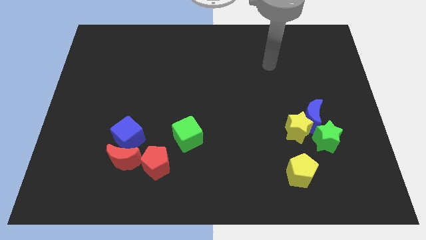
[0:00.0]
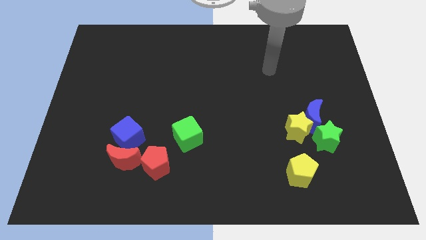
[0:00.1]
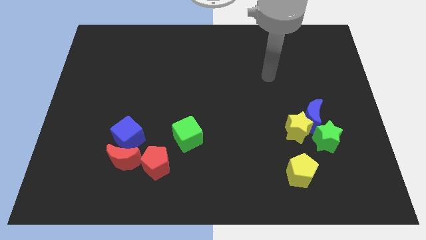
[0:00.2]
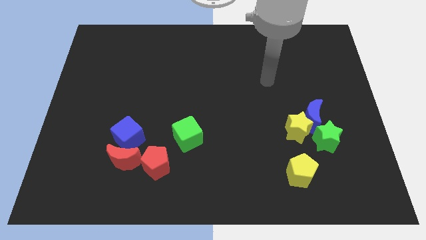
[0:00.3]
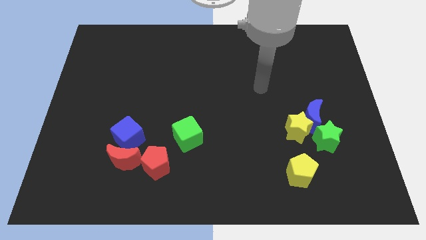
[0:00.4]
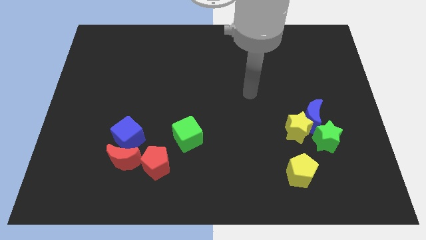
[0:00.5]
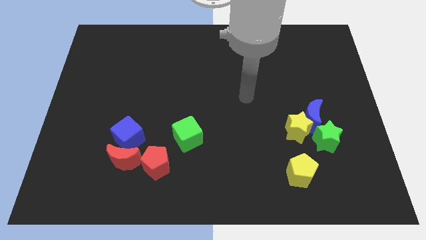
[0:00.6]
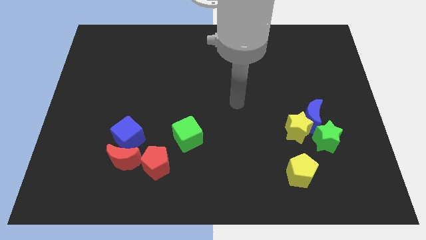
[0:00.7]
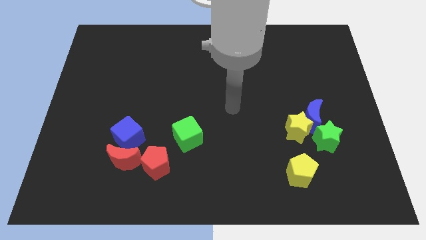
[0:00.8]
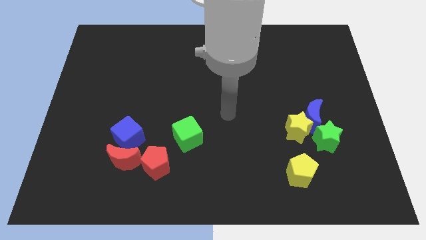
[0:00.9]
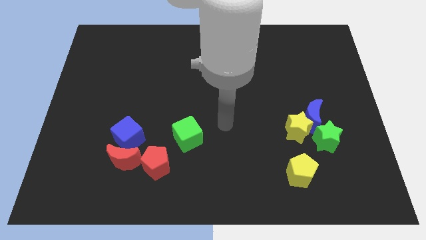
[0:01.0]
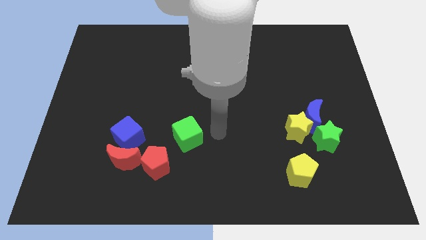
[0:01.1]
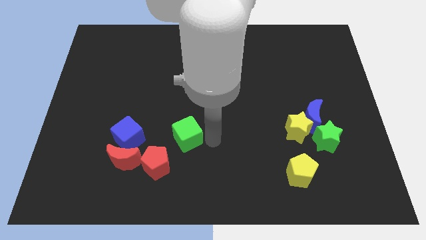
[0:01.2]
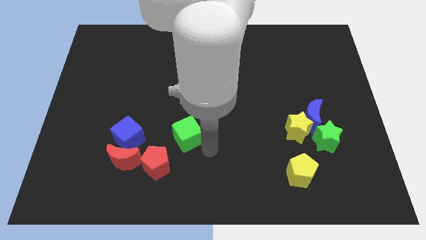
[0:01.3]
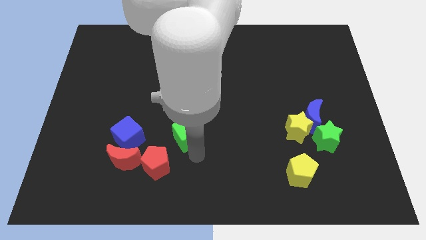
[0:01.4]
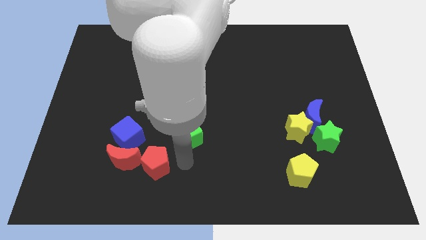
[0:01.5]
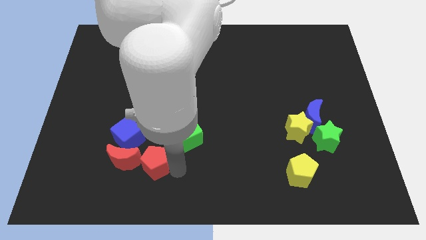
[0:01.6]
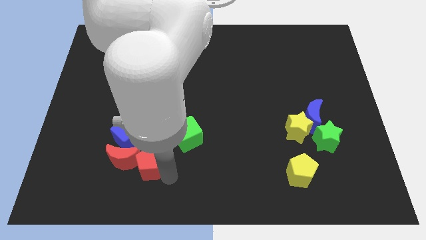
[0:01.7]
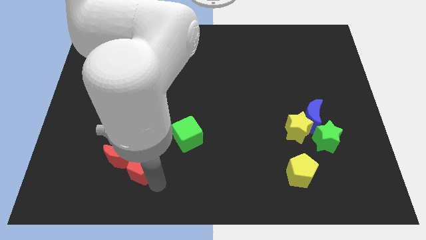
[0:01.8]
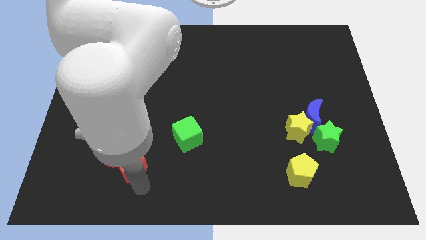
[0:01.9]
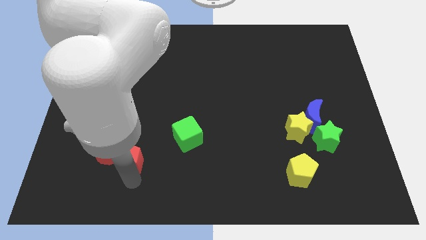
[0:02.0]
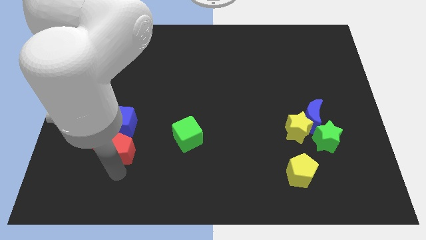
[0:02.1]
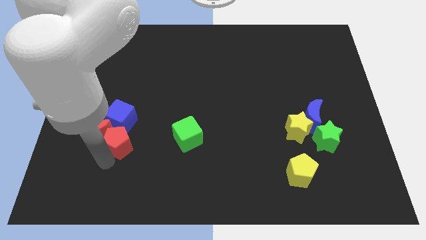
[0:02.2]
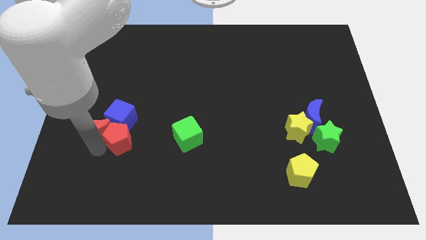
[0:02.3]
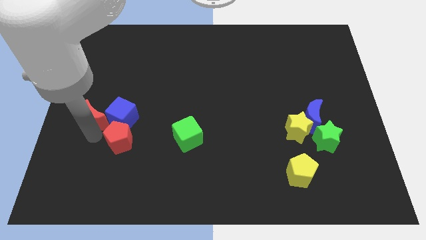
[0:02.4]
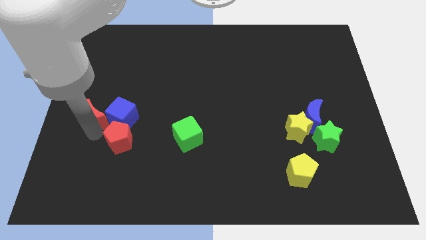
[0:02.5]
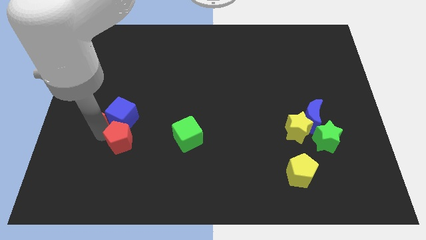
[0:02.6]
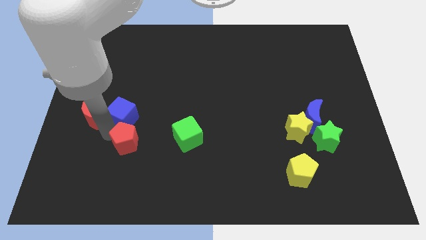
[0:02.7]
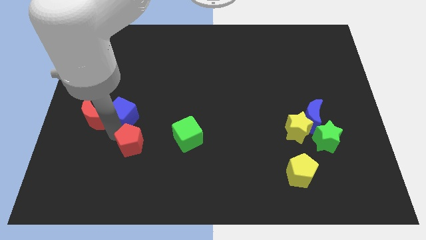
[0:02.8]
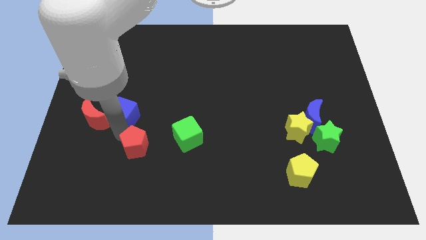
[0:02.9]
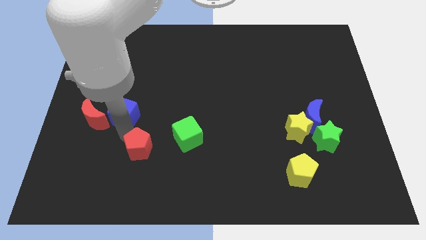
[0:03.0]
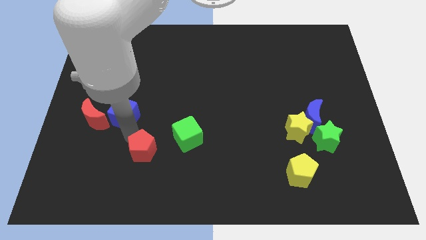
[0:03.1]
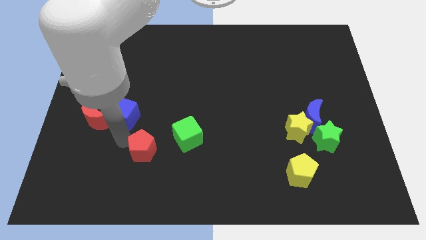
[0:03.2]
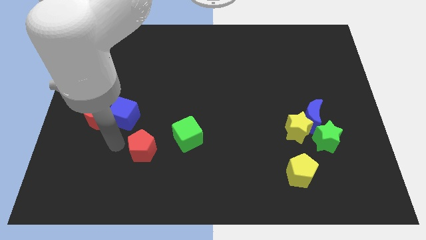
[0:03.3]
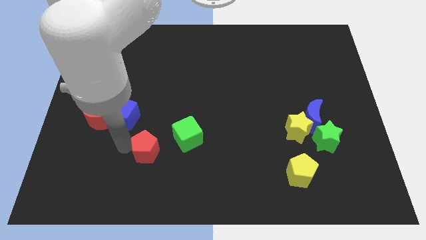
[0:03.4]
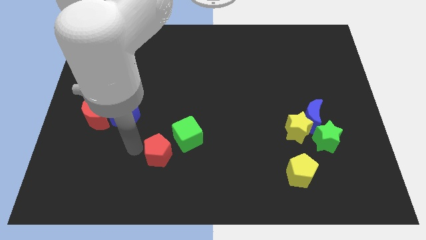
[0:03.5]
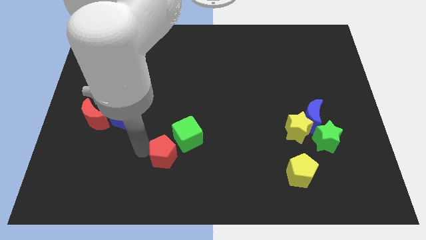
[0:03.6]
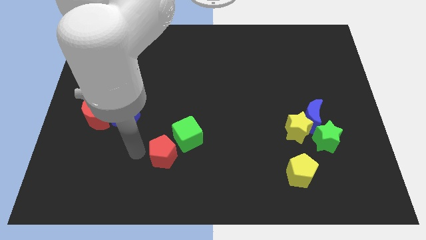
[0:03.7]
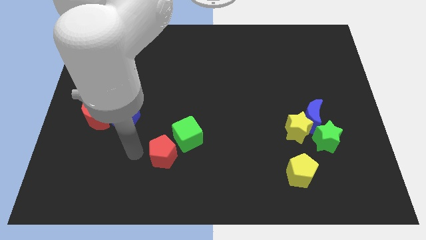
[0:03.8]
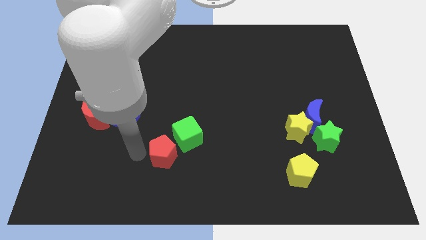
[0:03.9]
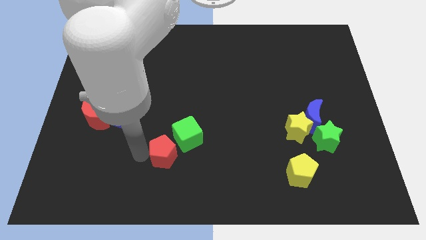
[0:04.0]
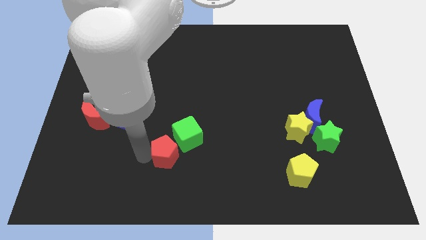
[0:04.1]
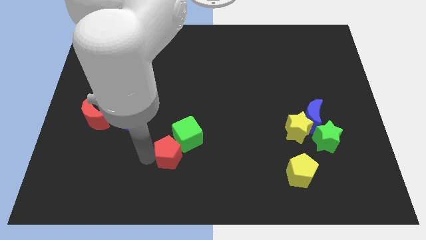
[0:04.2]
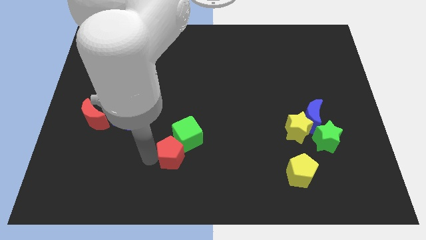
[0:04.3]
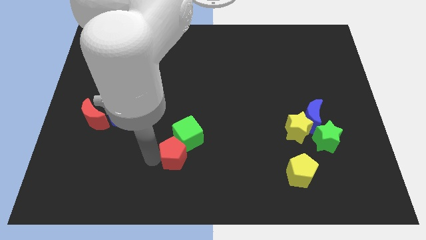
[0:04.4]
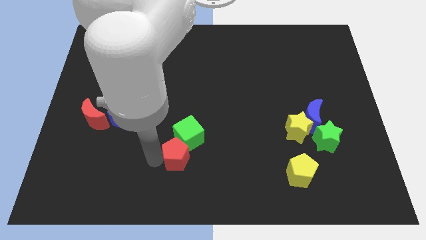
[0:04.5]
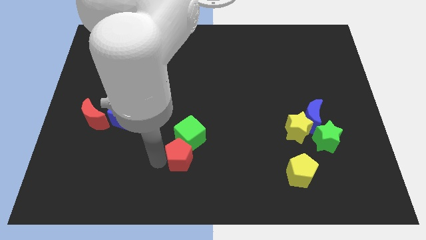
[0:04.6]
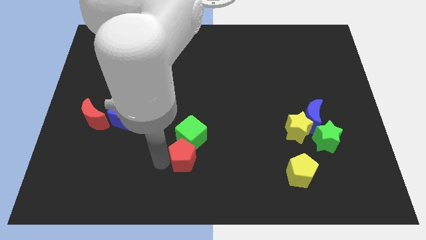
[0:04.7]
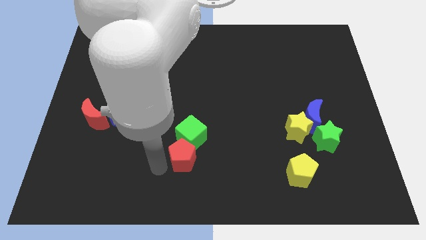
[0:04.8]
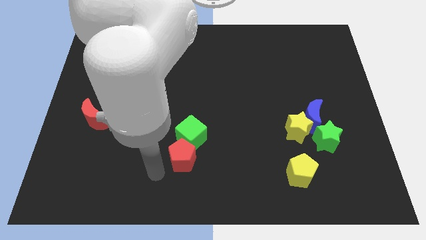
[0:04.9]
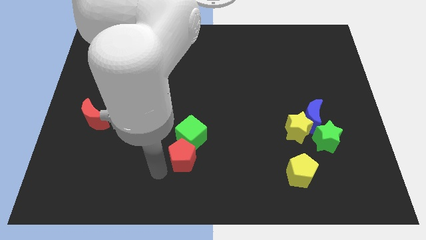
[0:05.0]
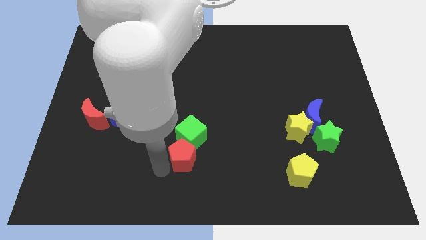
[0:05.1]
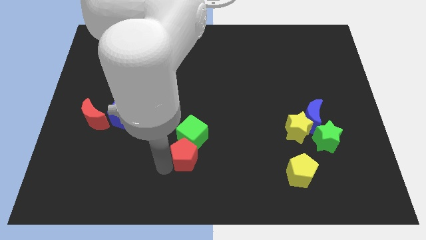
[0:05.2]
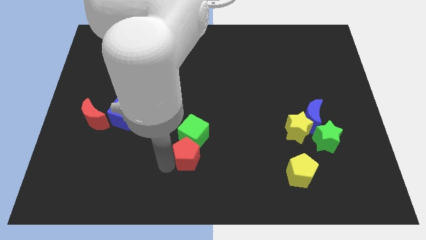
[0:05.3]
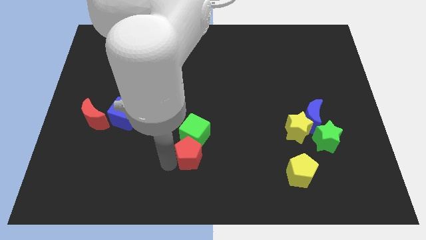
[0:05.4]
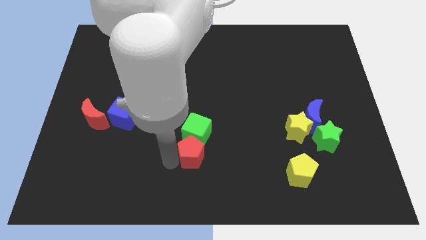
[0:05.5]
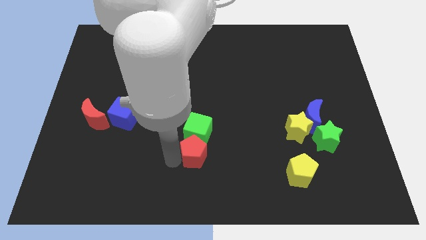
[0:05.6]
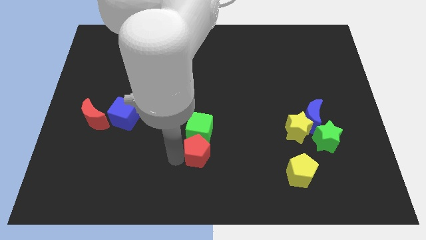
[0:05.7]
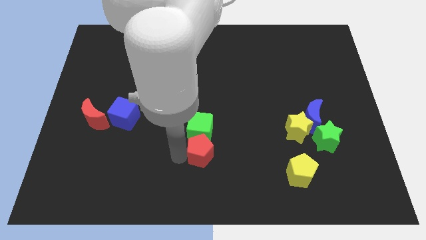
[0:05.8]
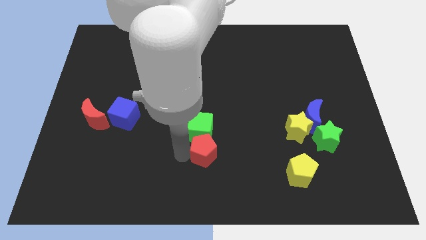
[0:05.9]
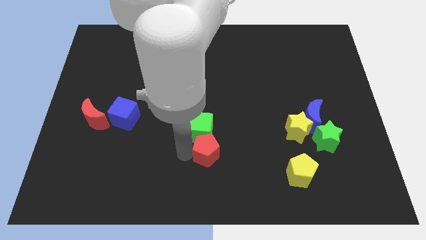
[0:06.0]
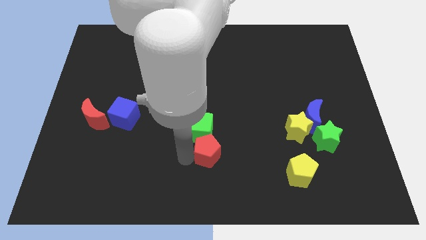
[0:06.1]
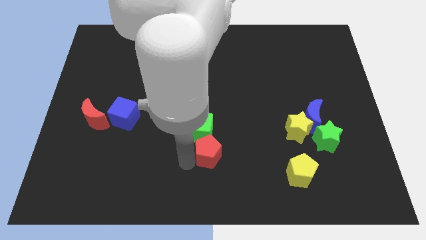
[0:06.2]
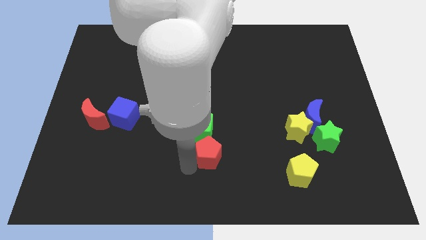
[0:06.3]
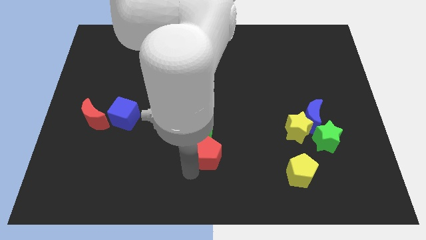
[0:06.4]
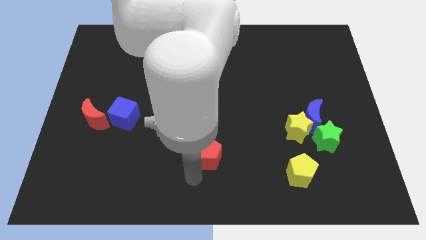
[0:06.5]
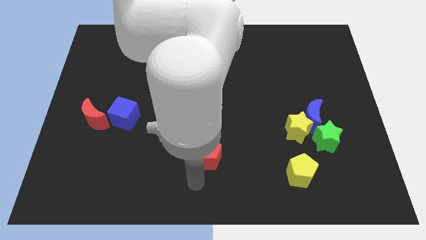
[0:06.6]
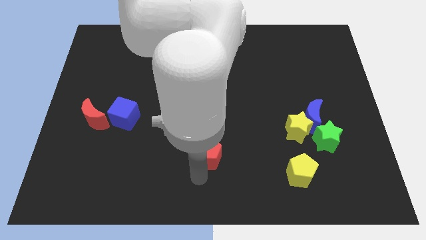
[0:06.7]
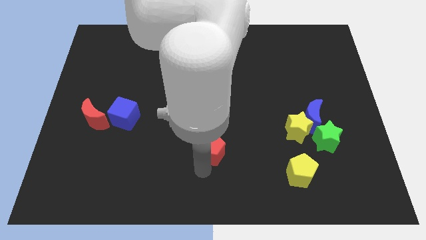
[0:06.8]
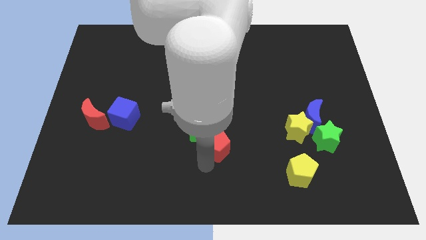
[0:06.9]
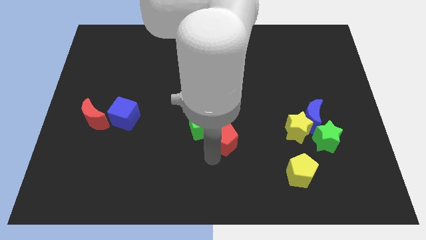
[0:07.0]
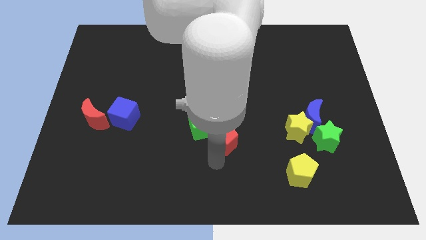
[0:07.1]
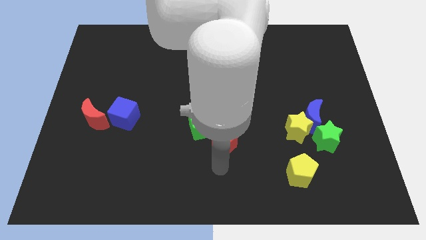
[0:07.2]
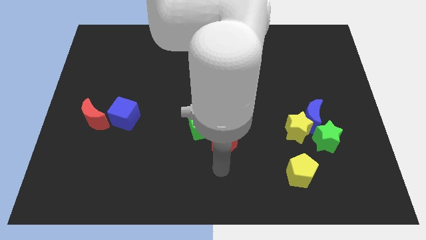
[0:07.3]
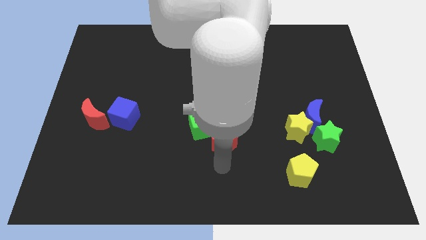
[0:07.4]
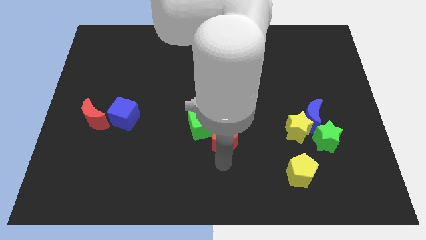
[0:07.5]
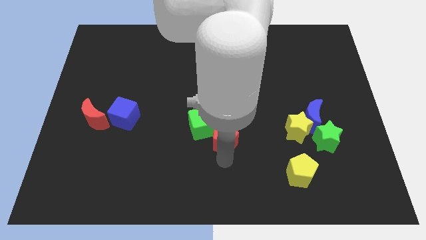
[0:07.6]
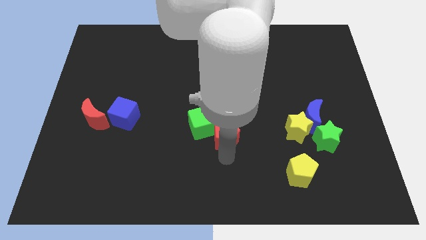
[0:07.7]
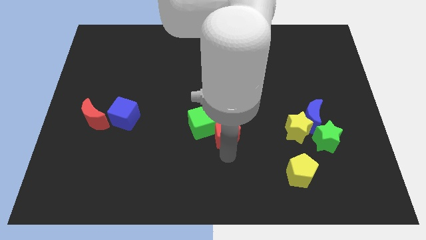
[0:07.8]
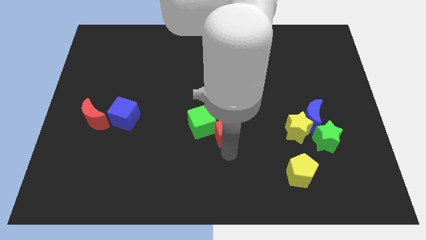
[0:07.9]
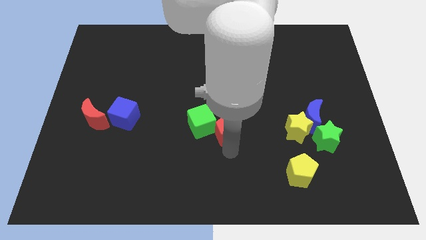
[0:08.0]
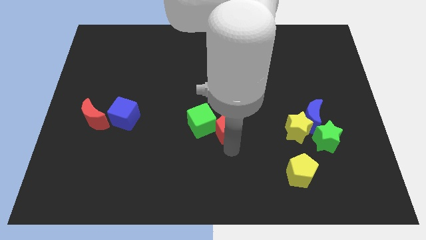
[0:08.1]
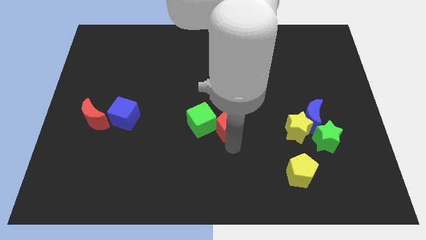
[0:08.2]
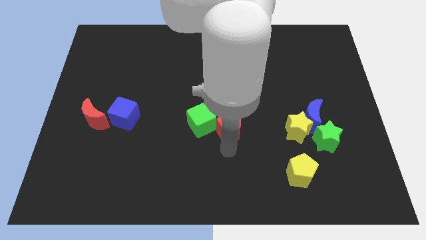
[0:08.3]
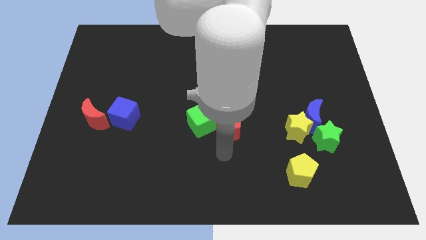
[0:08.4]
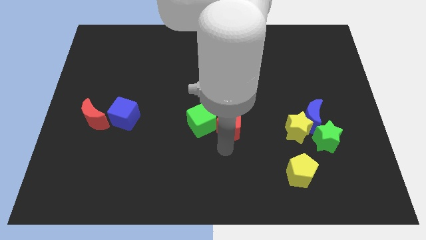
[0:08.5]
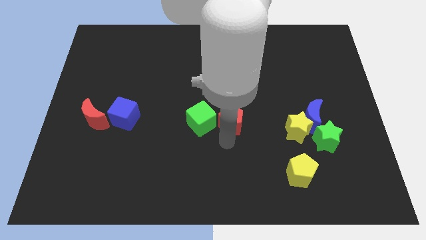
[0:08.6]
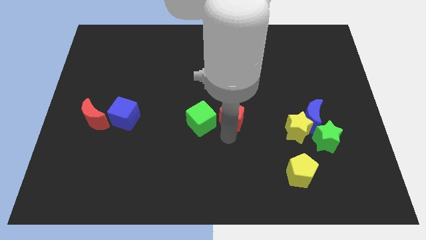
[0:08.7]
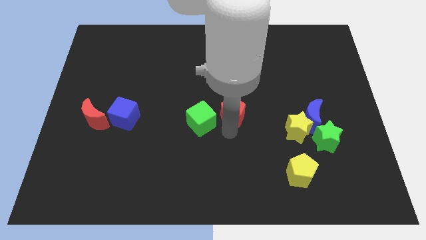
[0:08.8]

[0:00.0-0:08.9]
slide the red pentagon up and then right
